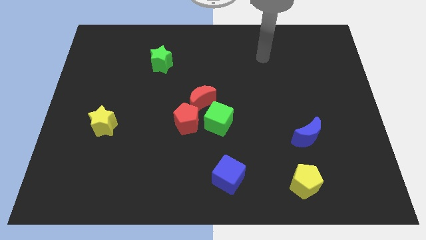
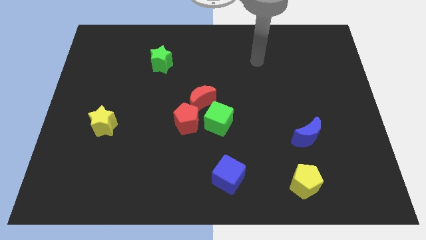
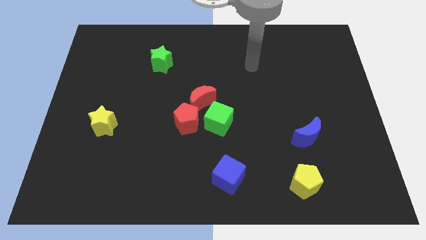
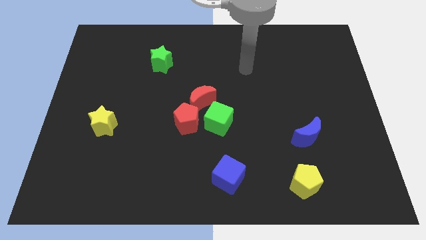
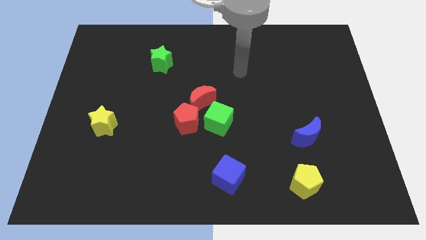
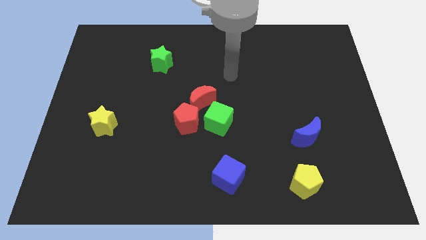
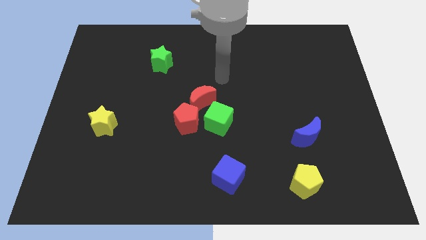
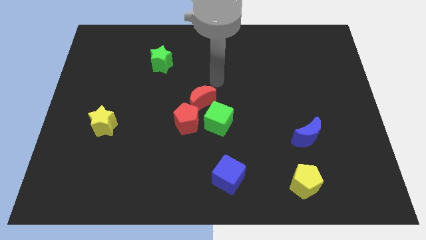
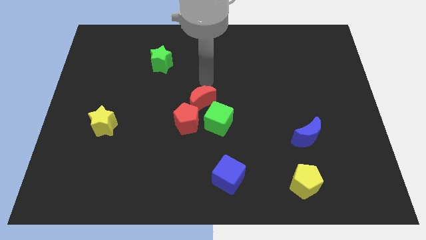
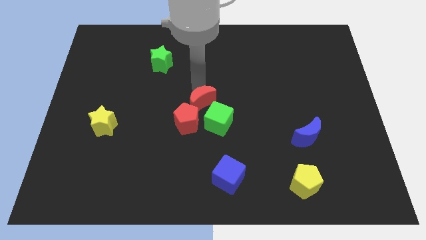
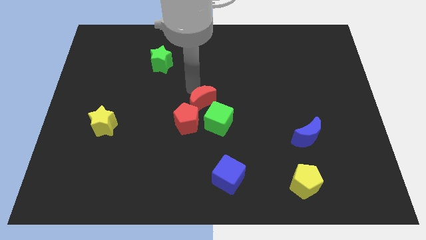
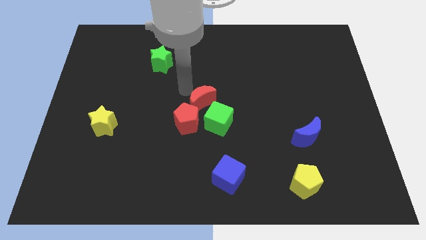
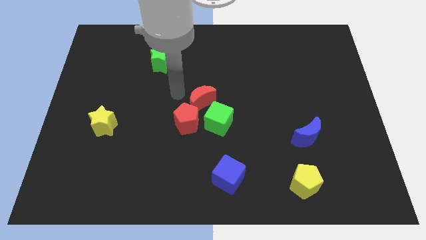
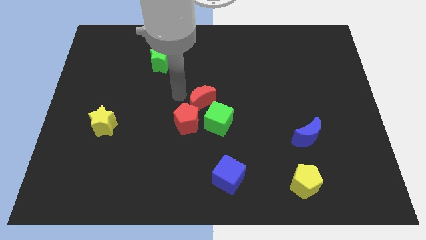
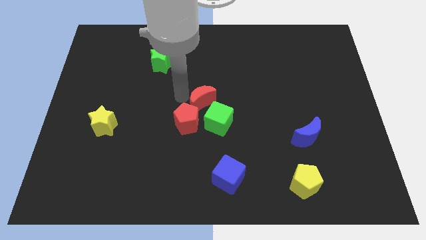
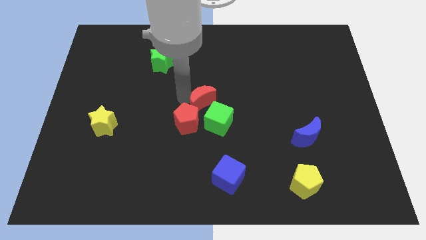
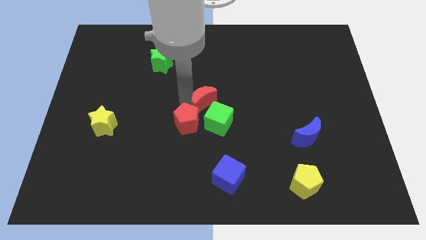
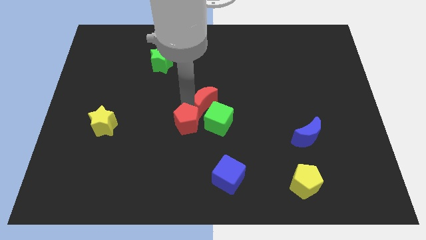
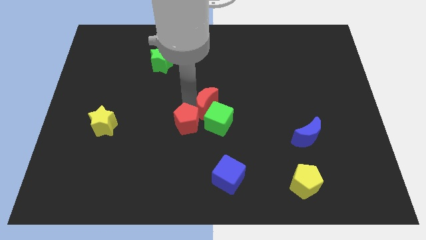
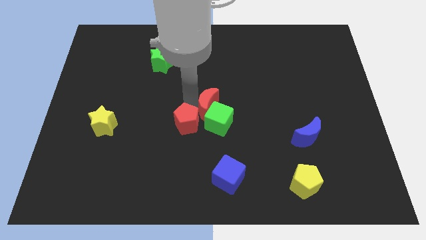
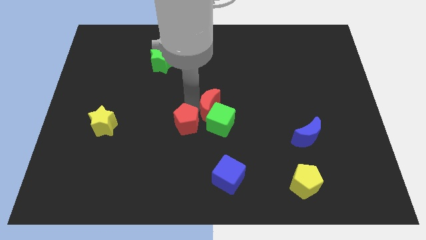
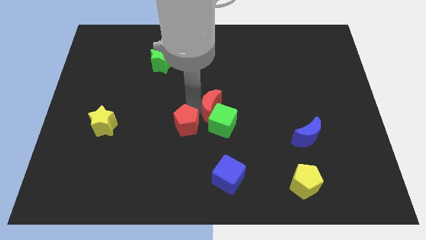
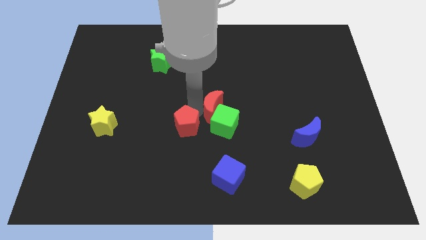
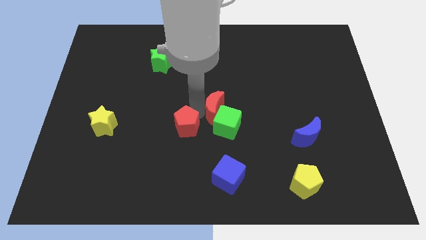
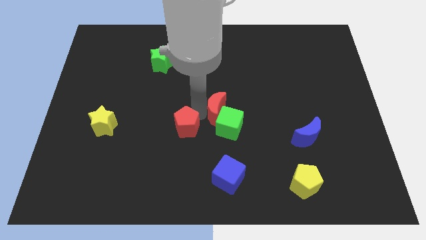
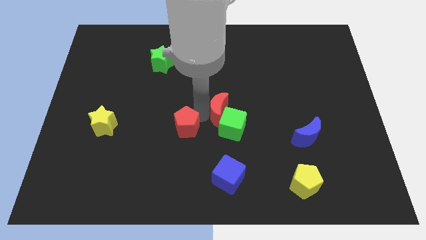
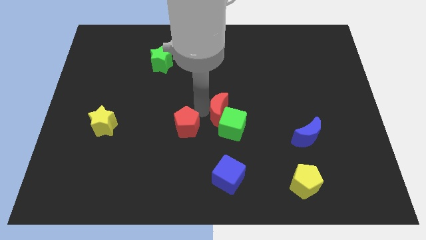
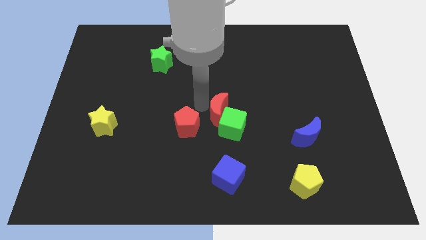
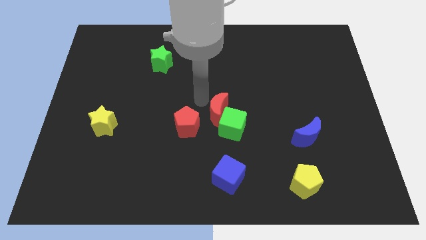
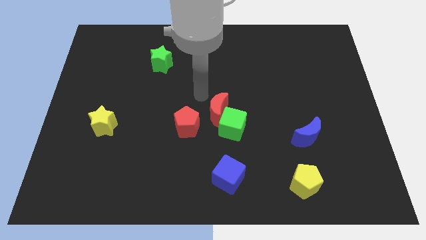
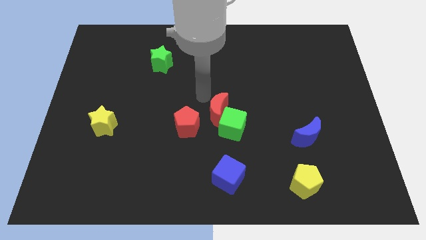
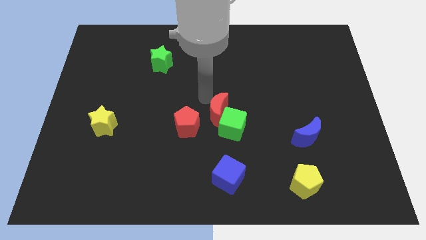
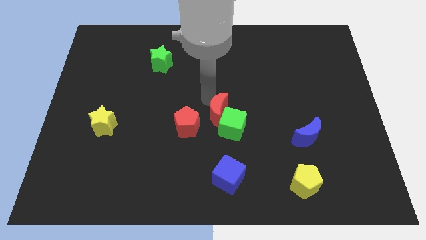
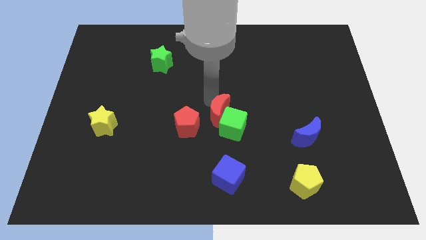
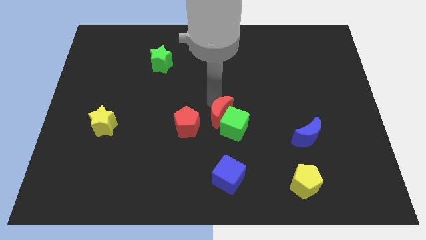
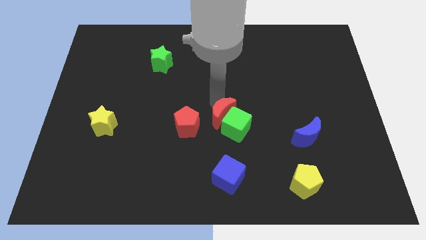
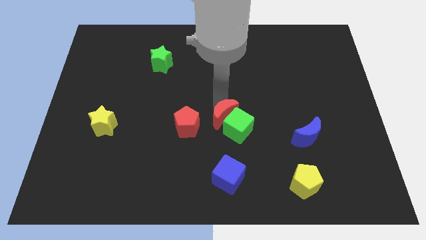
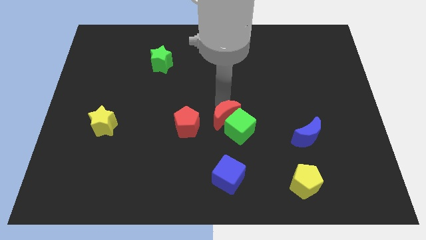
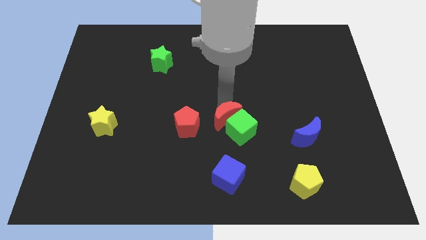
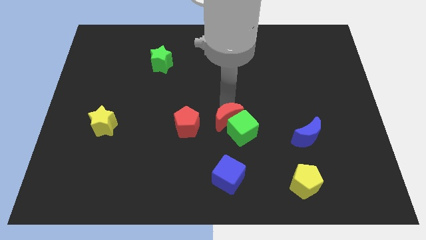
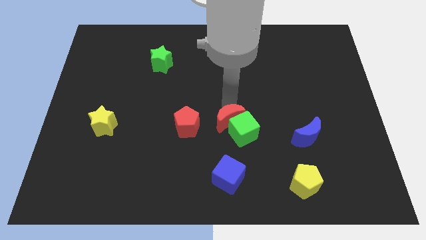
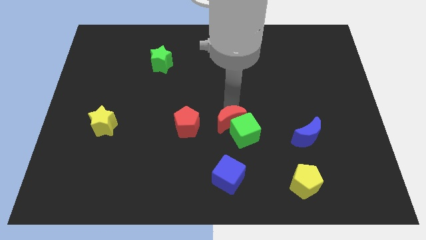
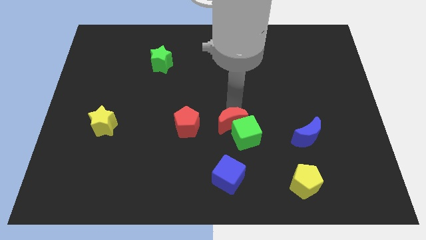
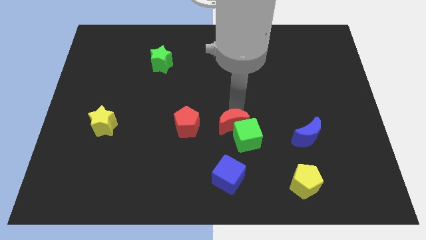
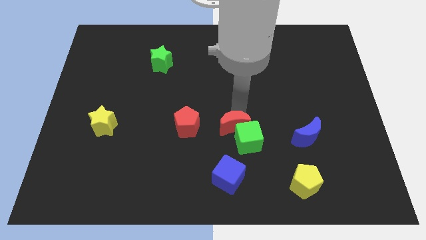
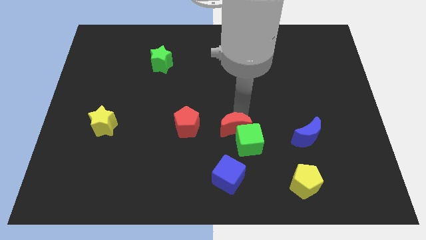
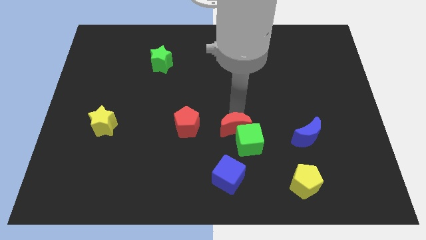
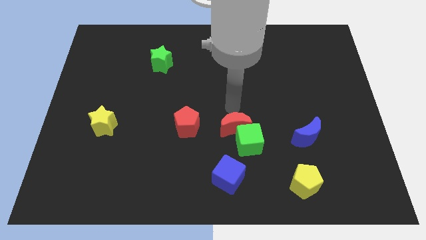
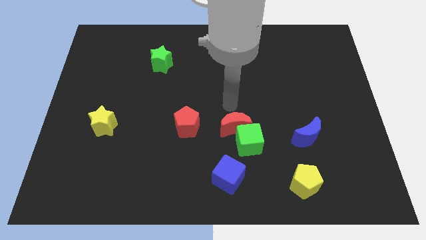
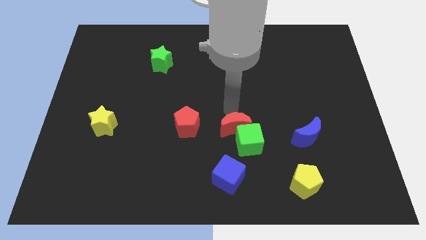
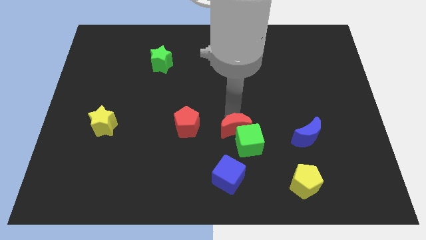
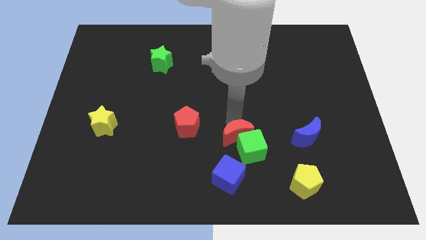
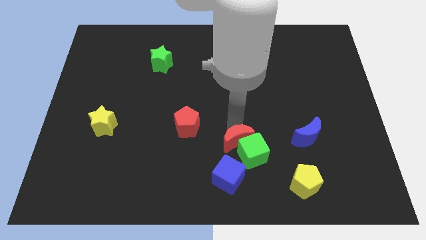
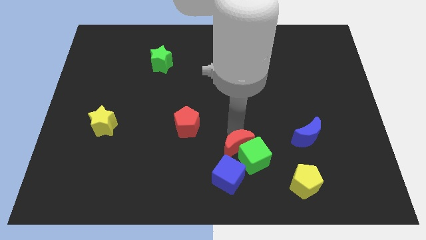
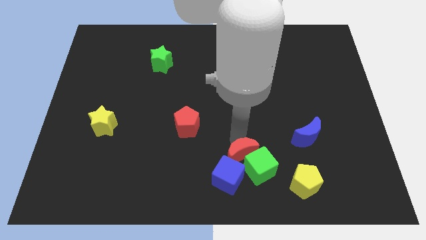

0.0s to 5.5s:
push the red moon next to the blue cube

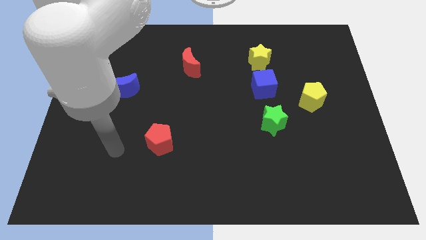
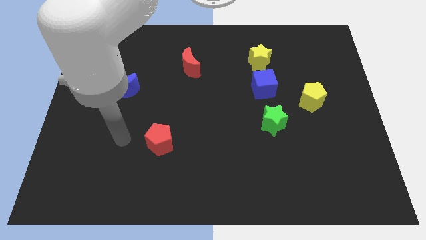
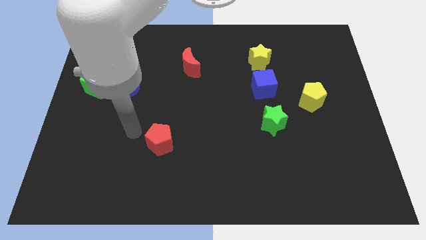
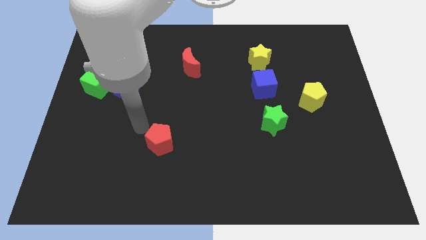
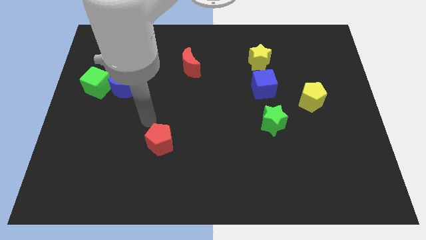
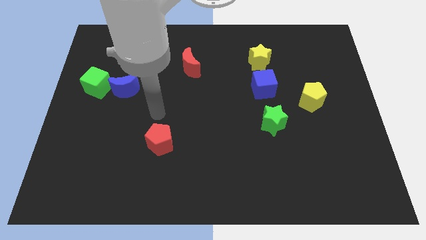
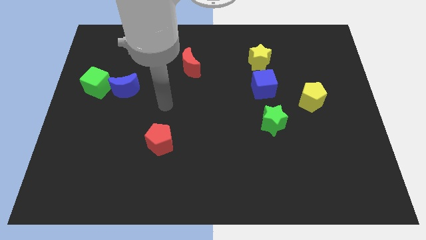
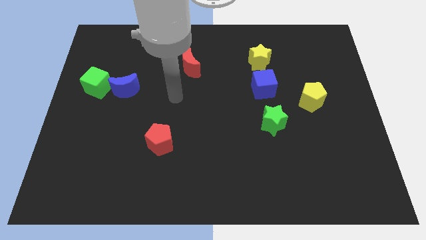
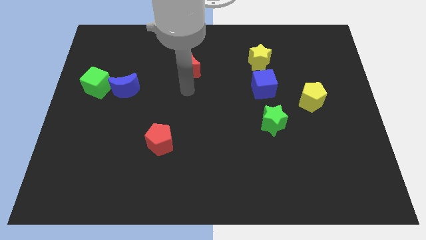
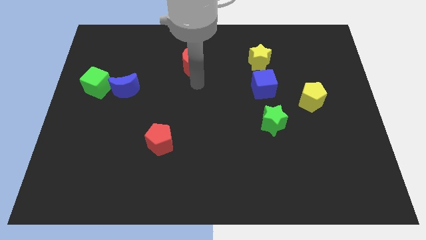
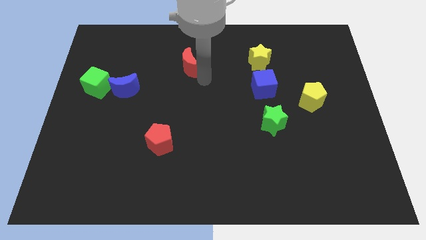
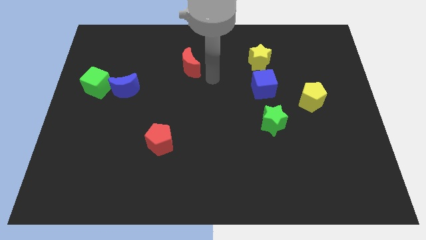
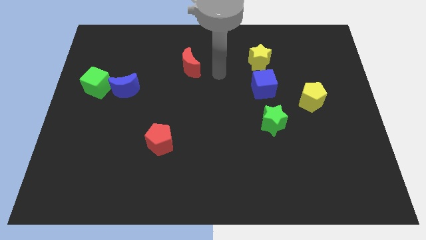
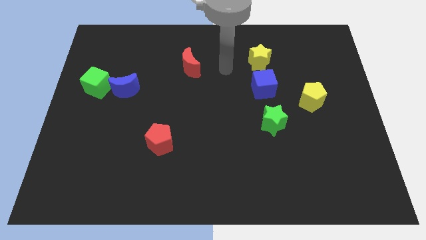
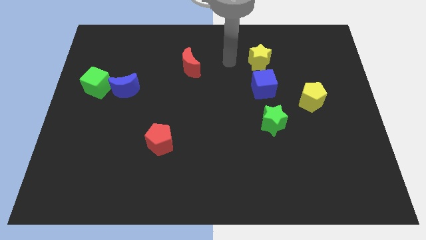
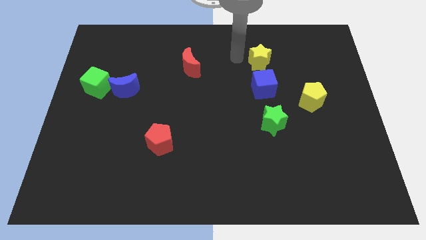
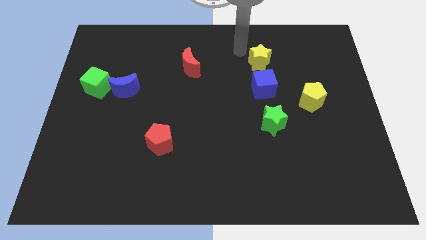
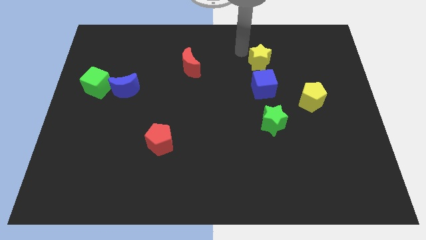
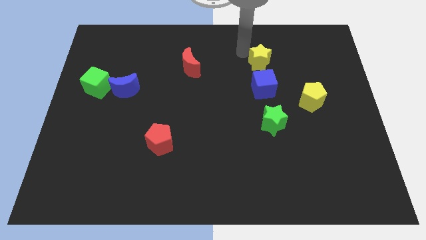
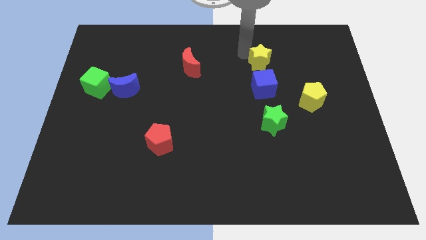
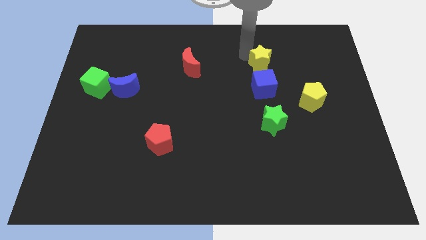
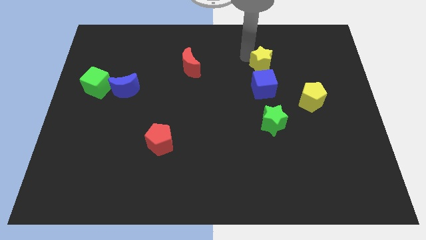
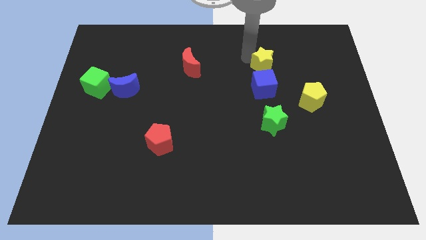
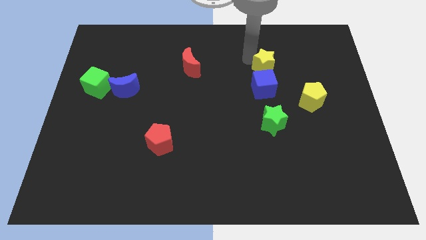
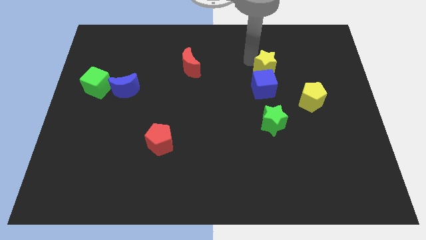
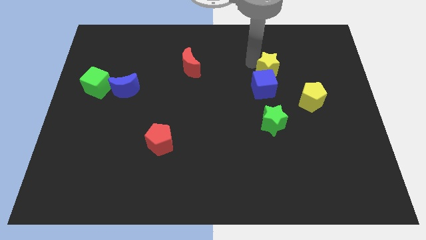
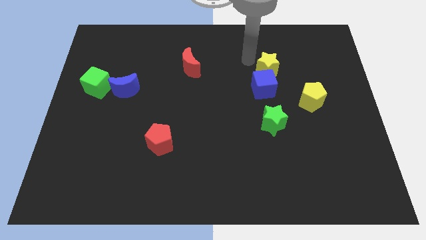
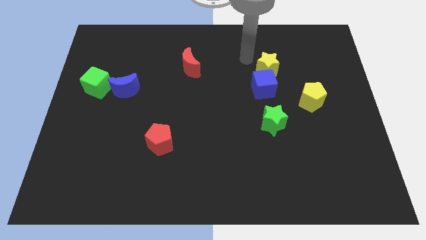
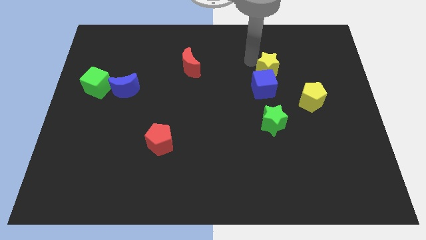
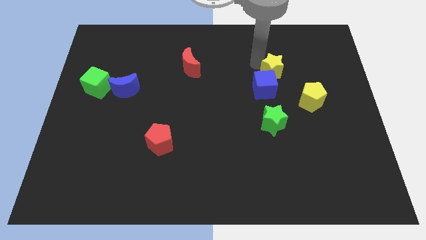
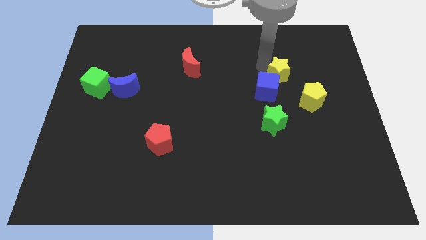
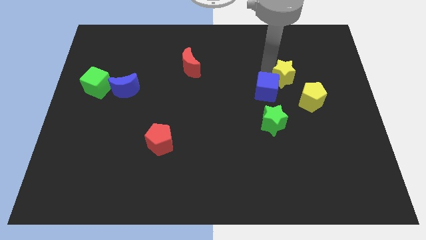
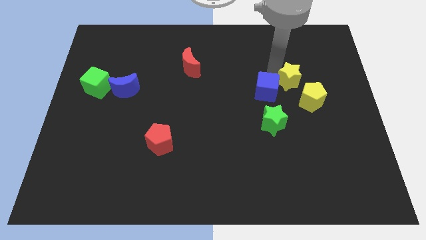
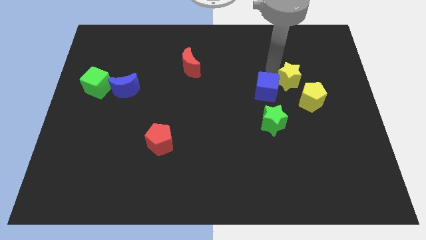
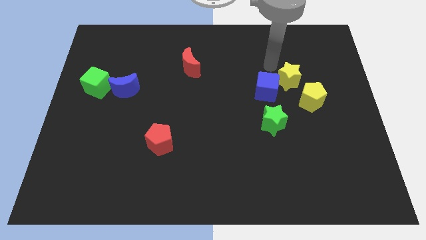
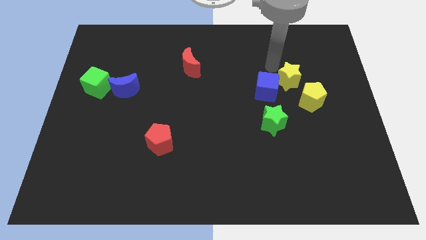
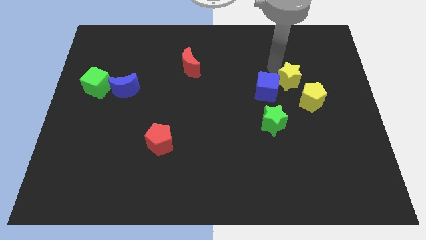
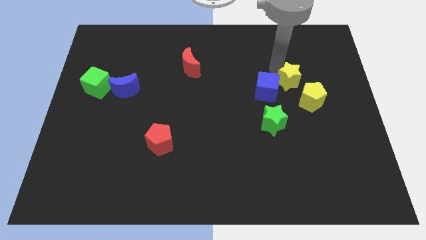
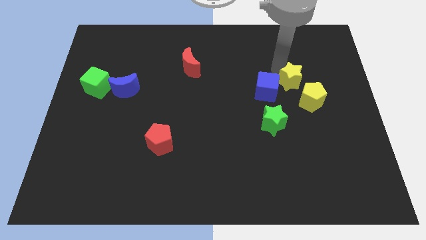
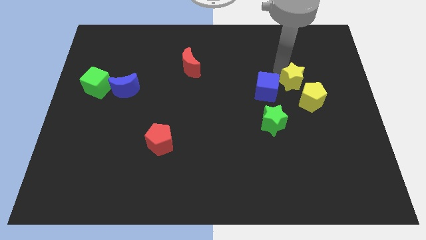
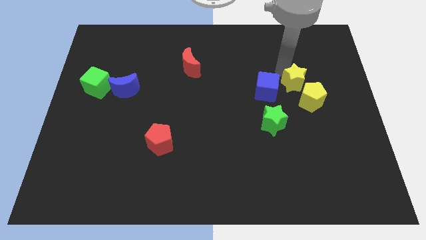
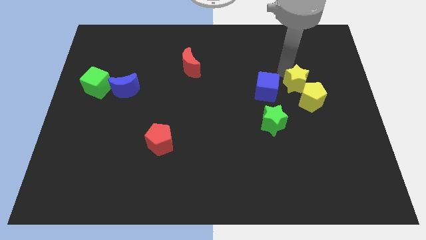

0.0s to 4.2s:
move the yellow star to the yellow pentagon
